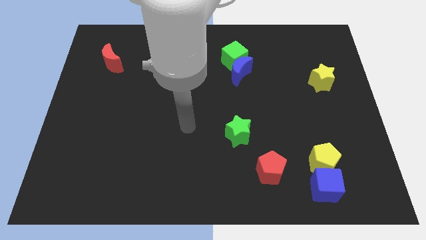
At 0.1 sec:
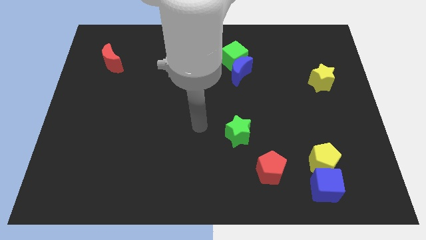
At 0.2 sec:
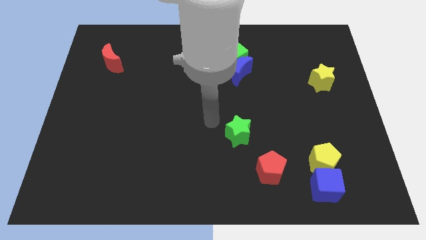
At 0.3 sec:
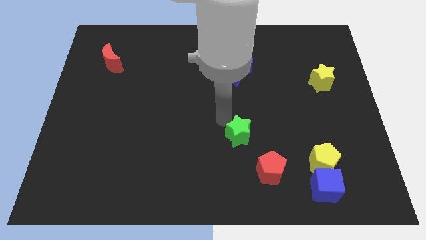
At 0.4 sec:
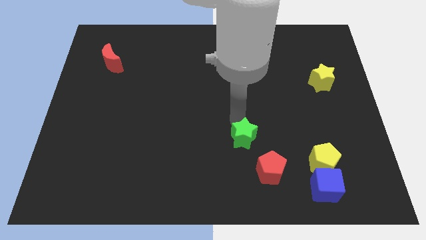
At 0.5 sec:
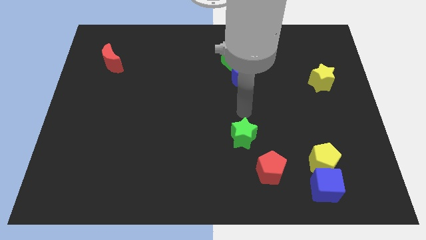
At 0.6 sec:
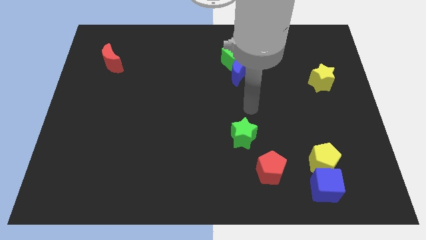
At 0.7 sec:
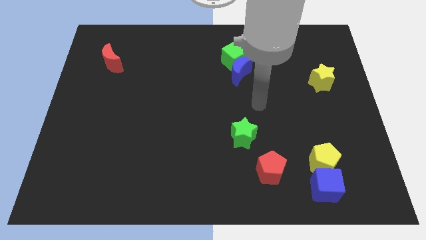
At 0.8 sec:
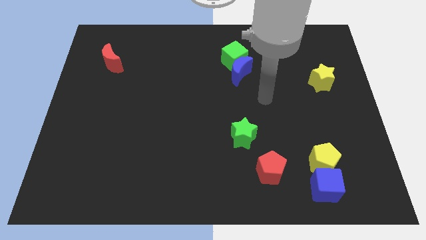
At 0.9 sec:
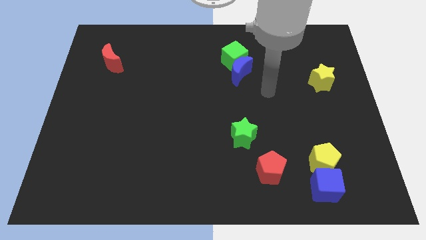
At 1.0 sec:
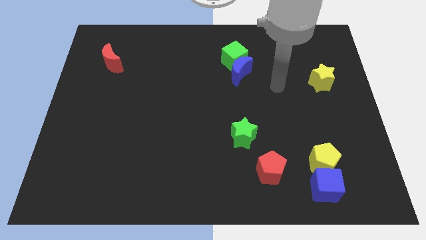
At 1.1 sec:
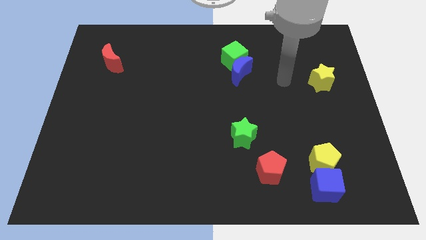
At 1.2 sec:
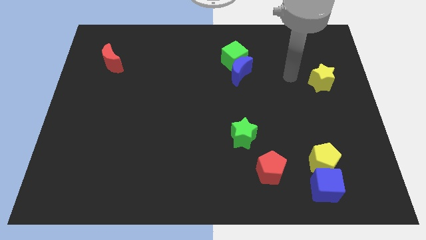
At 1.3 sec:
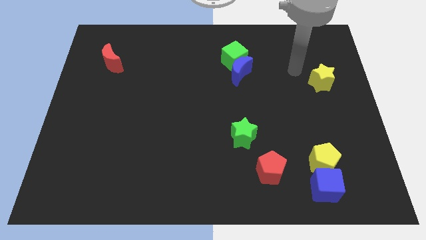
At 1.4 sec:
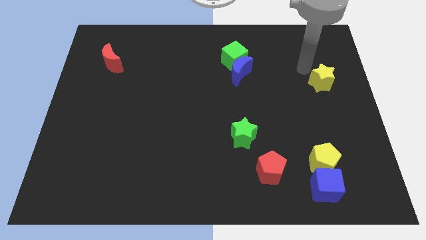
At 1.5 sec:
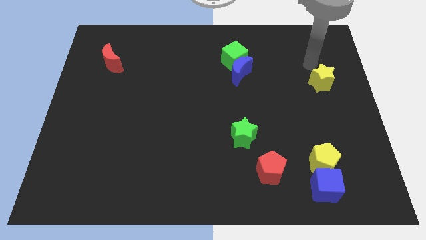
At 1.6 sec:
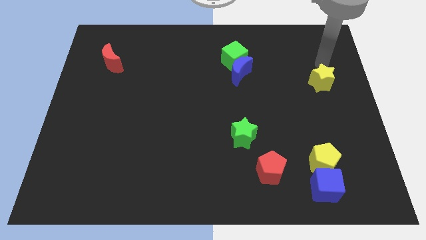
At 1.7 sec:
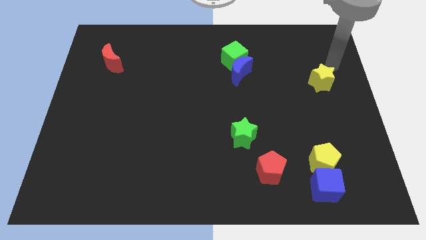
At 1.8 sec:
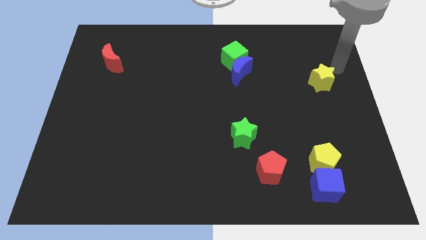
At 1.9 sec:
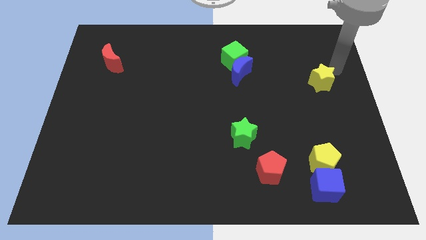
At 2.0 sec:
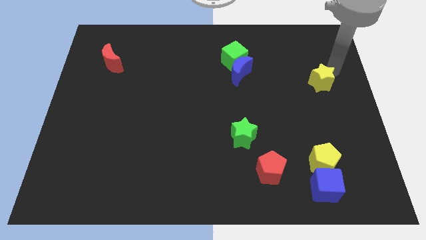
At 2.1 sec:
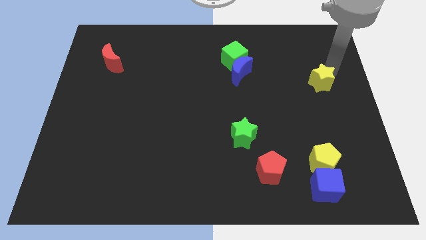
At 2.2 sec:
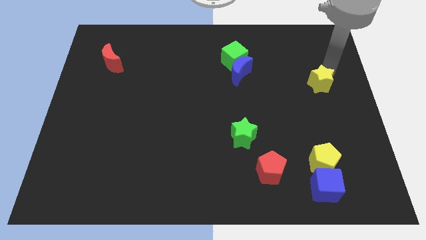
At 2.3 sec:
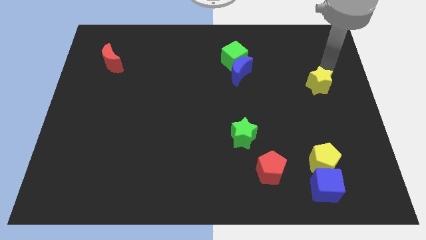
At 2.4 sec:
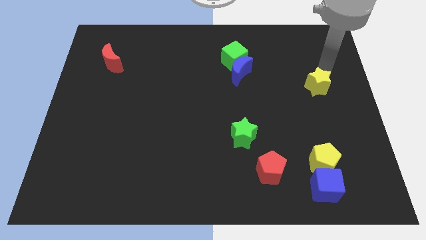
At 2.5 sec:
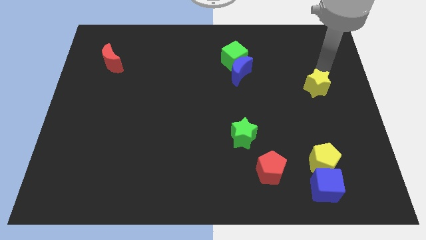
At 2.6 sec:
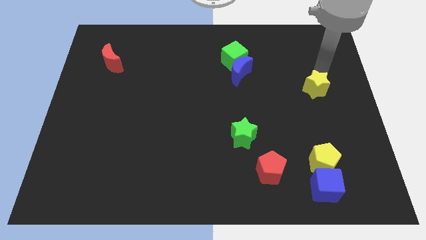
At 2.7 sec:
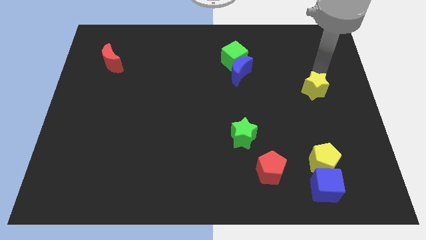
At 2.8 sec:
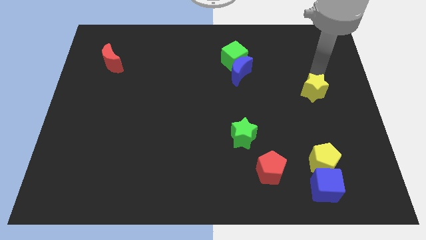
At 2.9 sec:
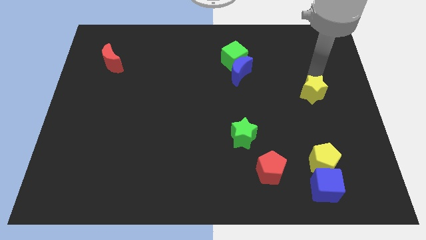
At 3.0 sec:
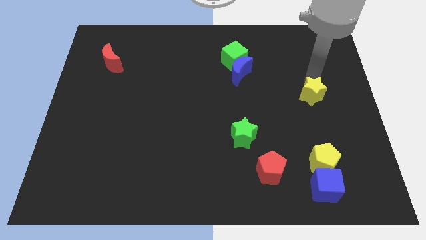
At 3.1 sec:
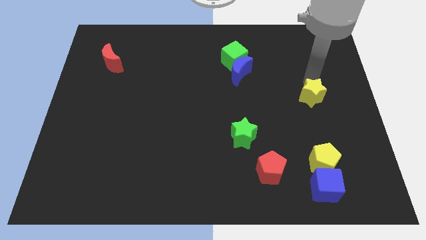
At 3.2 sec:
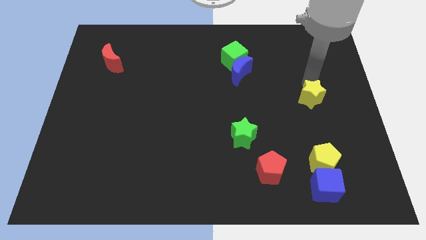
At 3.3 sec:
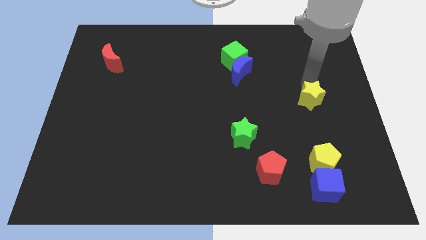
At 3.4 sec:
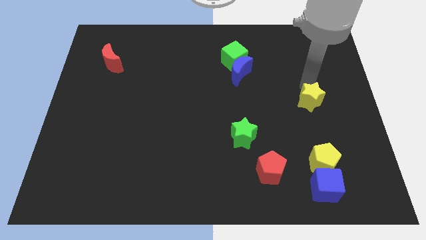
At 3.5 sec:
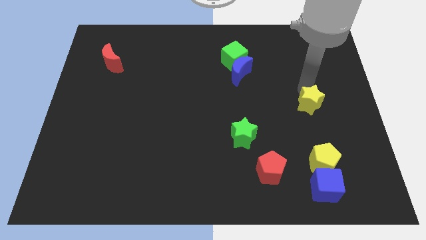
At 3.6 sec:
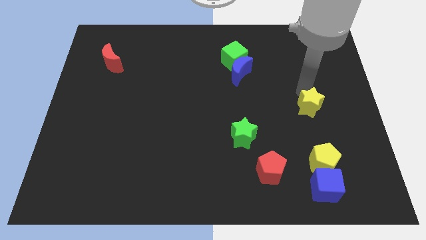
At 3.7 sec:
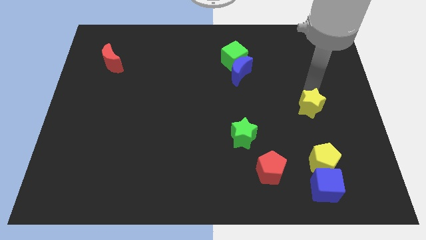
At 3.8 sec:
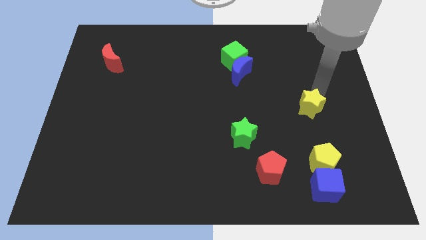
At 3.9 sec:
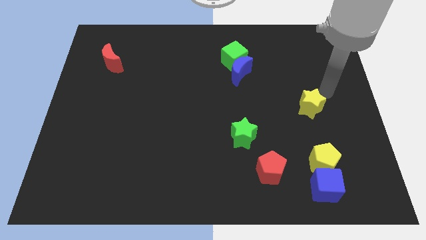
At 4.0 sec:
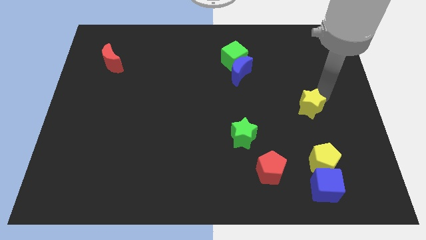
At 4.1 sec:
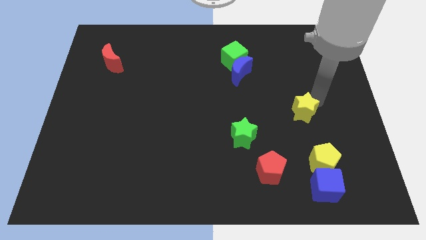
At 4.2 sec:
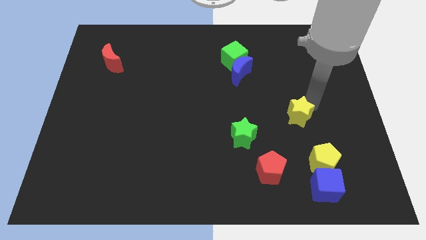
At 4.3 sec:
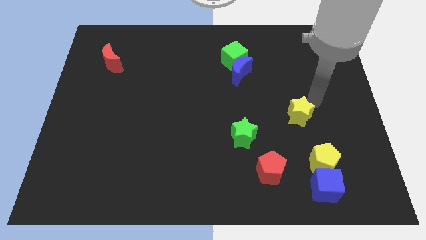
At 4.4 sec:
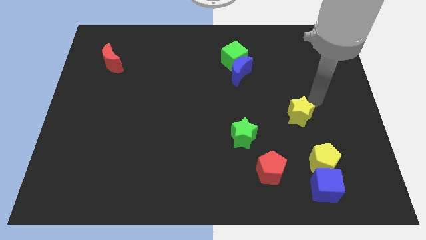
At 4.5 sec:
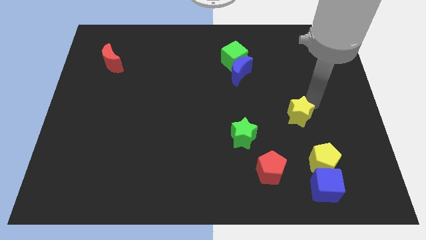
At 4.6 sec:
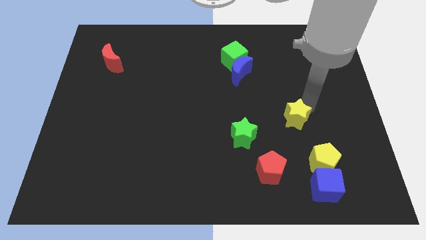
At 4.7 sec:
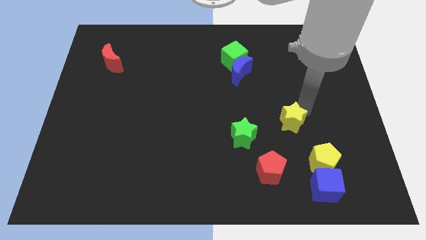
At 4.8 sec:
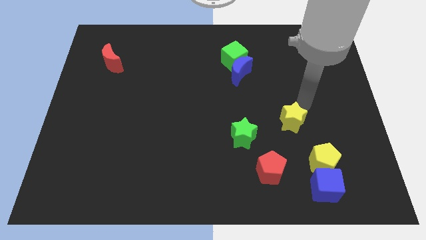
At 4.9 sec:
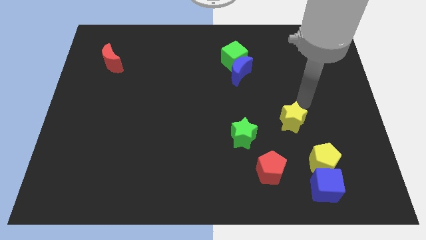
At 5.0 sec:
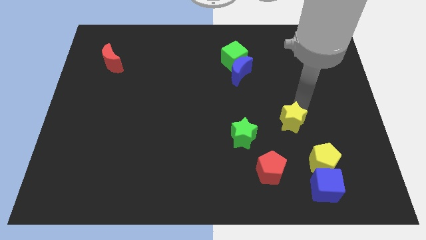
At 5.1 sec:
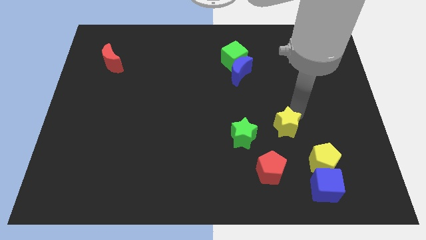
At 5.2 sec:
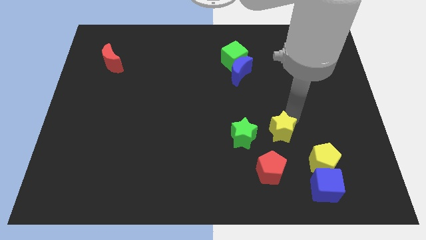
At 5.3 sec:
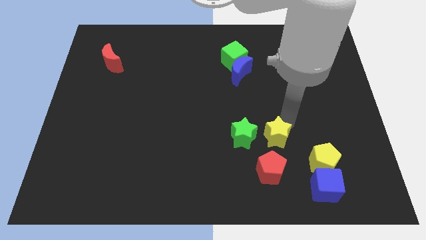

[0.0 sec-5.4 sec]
slide the yellow star downwards and to the left

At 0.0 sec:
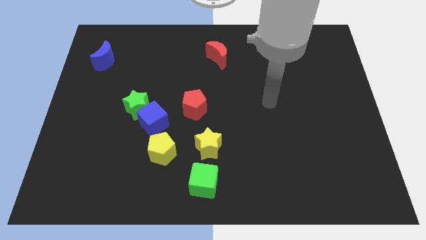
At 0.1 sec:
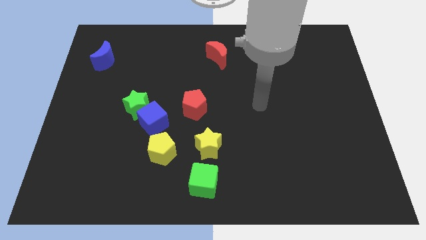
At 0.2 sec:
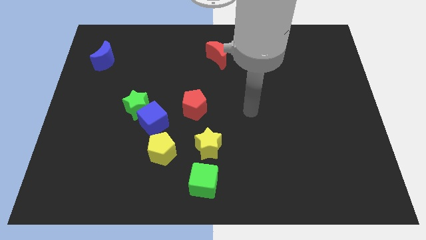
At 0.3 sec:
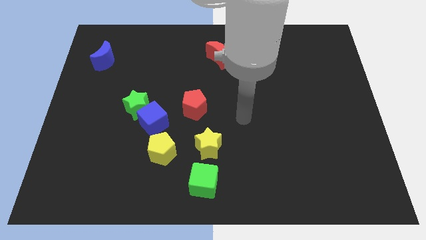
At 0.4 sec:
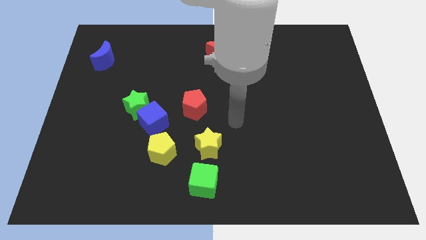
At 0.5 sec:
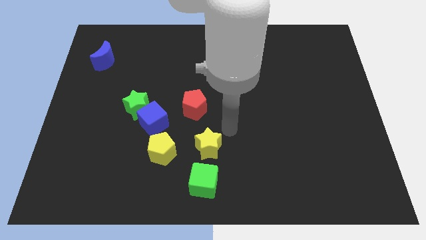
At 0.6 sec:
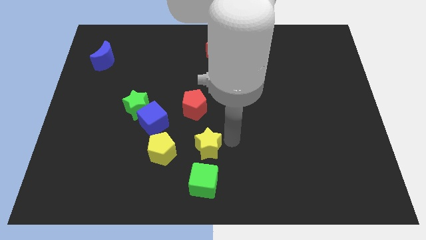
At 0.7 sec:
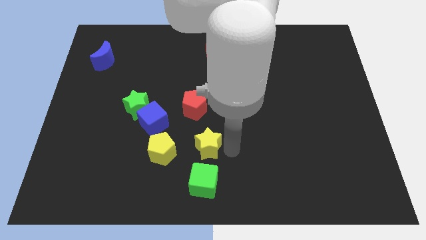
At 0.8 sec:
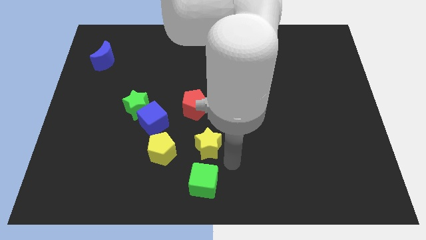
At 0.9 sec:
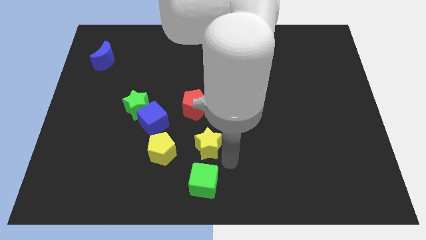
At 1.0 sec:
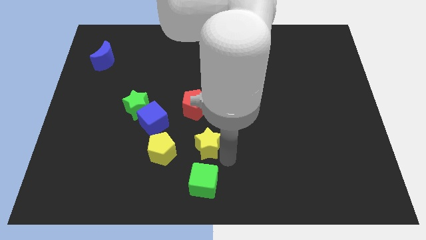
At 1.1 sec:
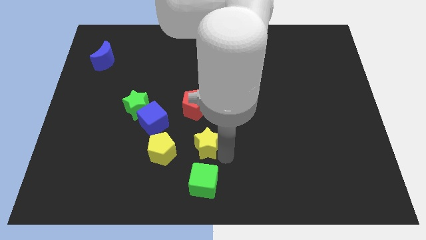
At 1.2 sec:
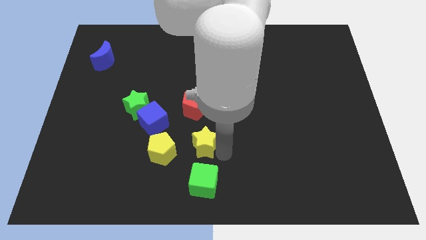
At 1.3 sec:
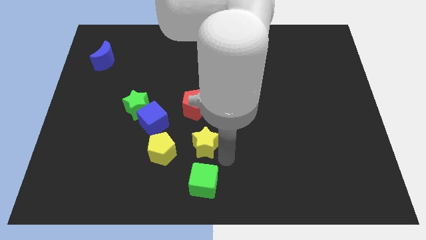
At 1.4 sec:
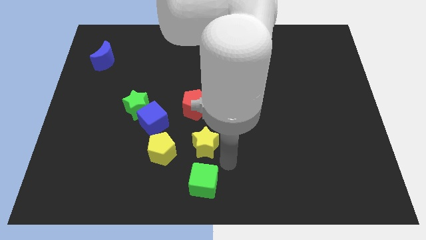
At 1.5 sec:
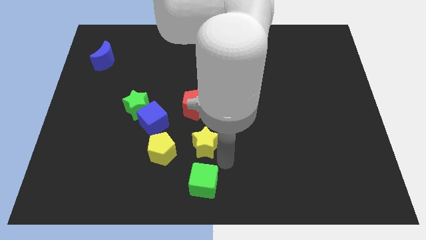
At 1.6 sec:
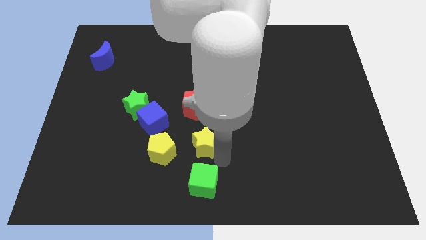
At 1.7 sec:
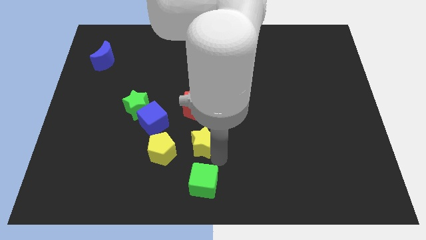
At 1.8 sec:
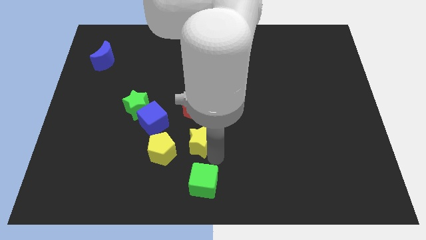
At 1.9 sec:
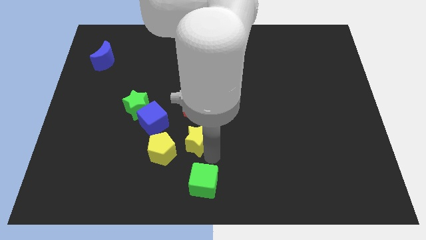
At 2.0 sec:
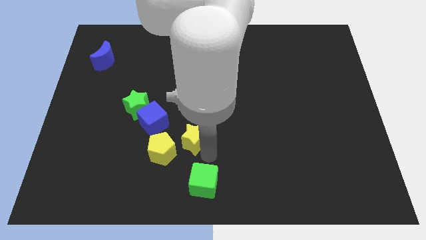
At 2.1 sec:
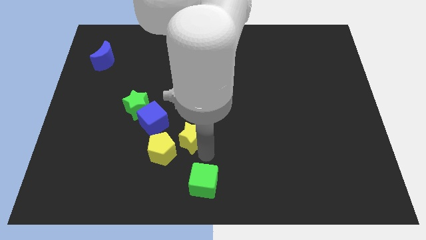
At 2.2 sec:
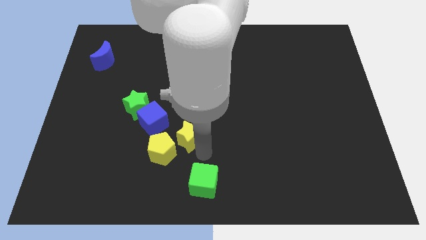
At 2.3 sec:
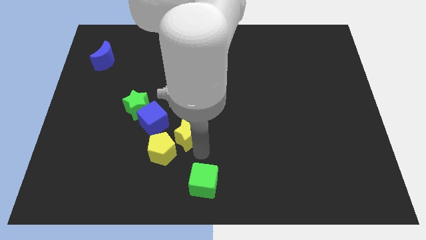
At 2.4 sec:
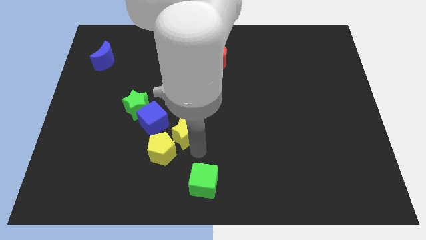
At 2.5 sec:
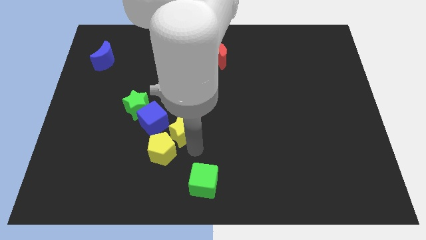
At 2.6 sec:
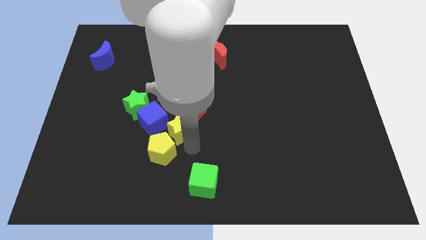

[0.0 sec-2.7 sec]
move the yellow star a bit diagonally upwards and left
